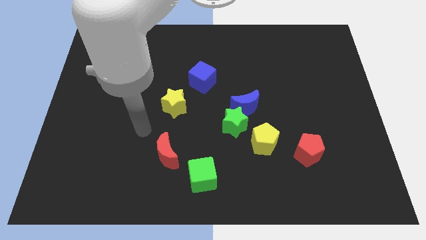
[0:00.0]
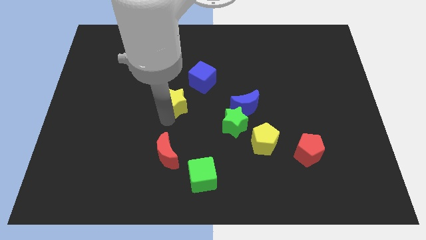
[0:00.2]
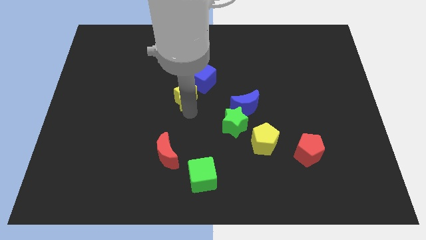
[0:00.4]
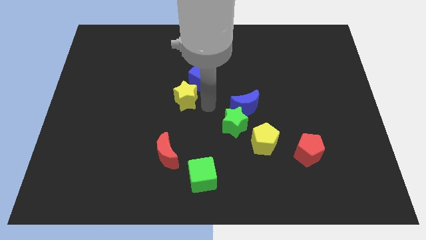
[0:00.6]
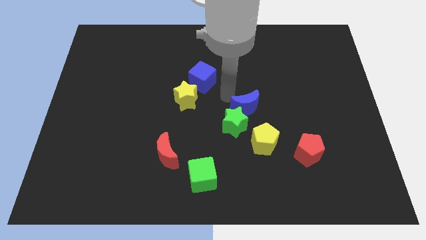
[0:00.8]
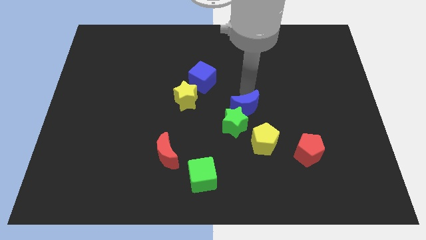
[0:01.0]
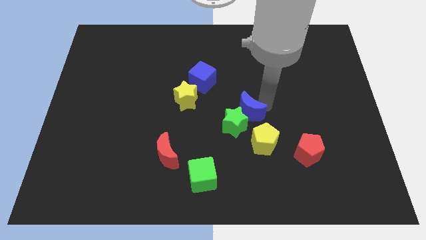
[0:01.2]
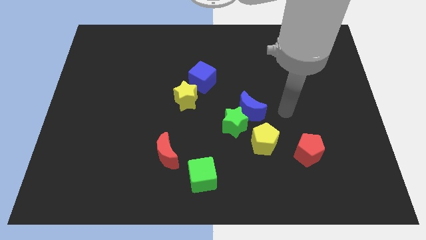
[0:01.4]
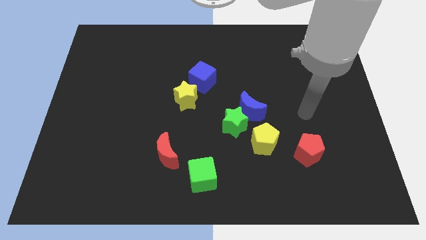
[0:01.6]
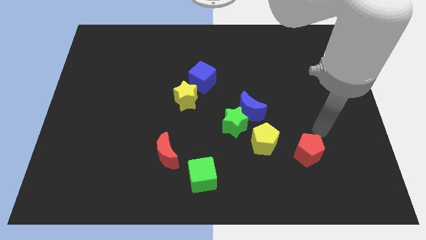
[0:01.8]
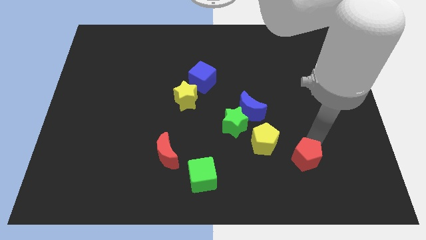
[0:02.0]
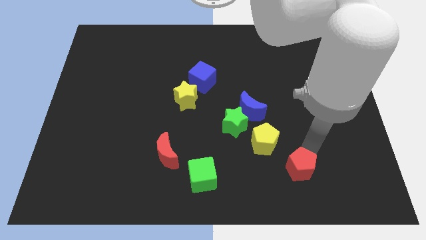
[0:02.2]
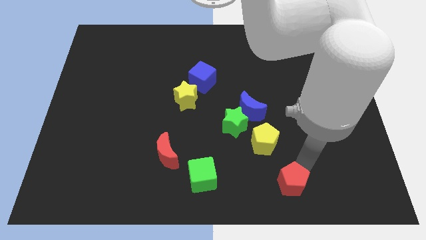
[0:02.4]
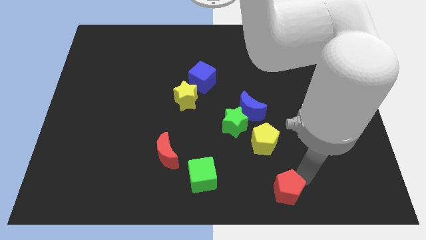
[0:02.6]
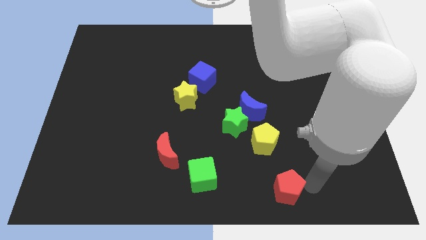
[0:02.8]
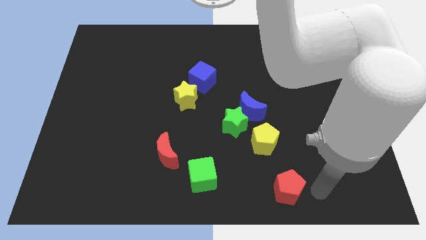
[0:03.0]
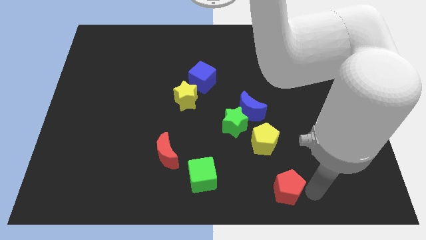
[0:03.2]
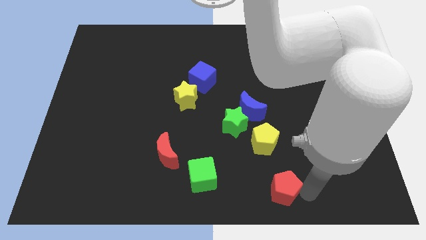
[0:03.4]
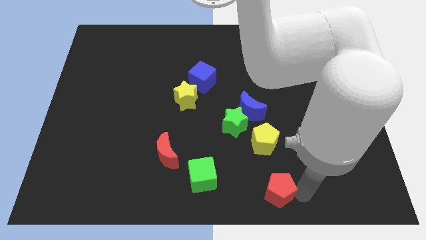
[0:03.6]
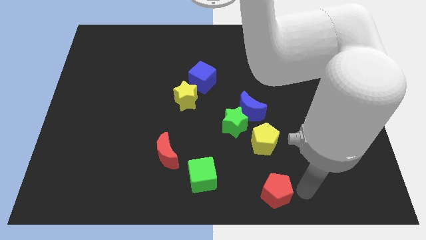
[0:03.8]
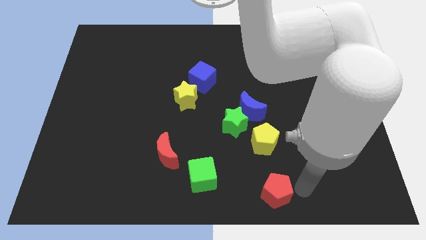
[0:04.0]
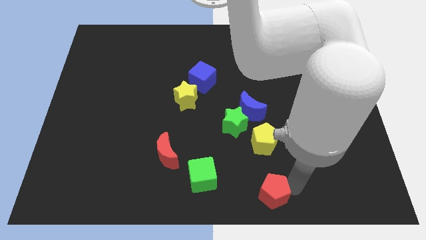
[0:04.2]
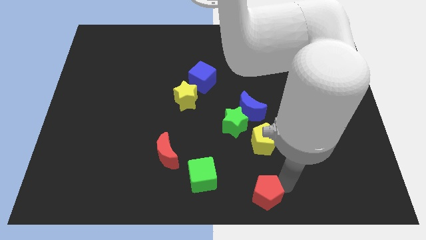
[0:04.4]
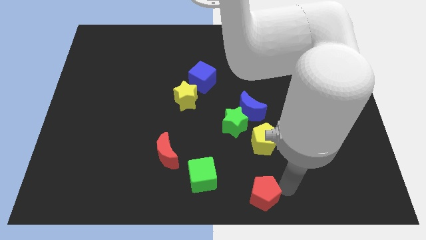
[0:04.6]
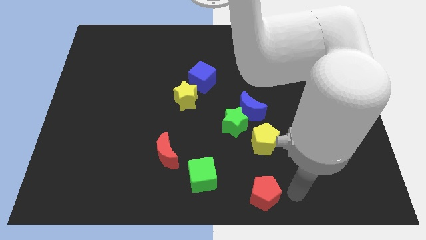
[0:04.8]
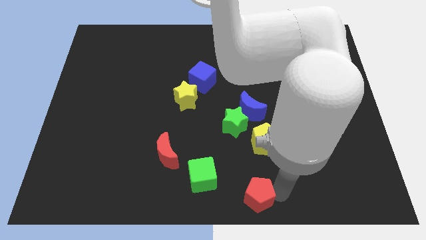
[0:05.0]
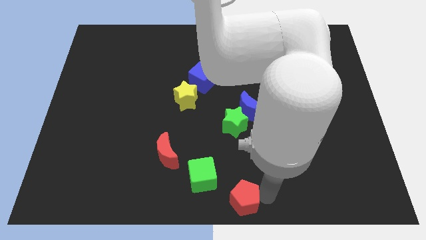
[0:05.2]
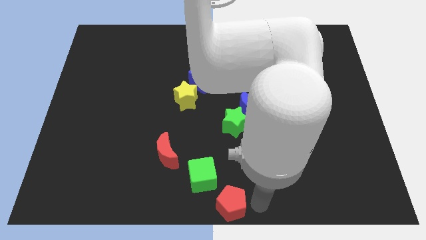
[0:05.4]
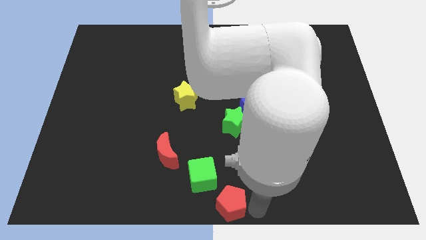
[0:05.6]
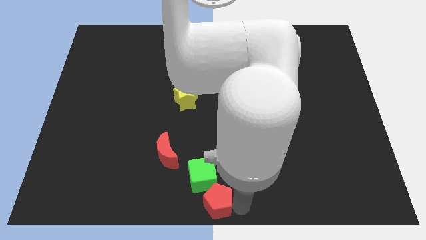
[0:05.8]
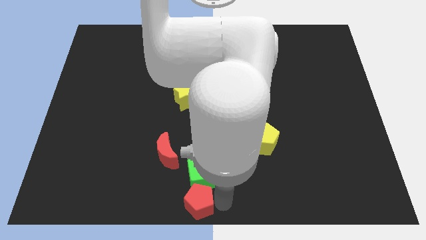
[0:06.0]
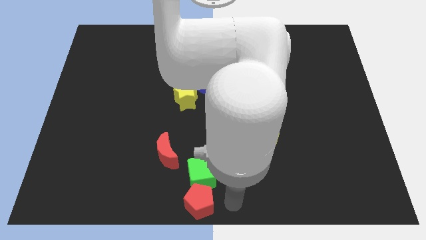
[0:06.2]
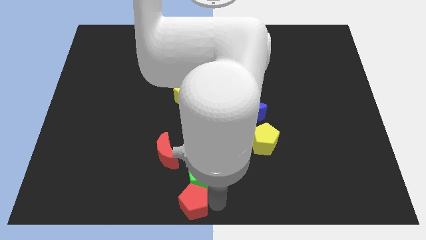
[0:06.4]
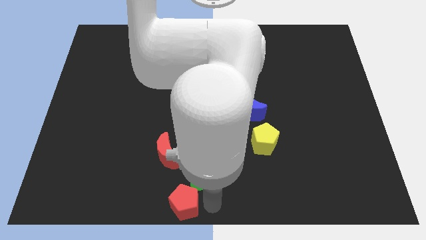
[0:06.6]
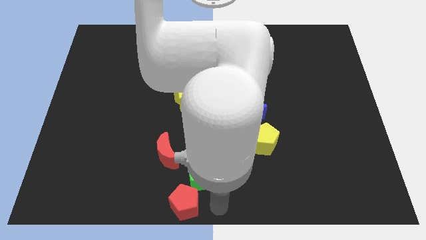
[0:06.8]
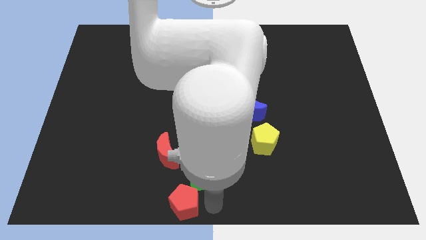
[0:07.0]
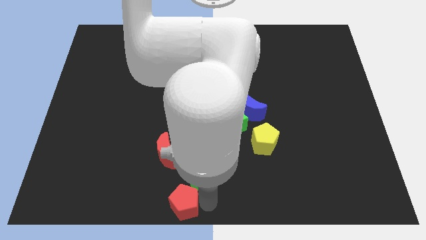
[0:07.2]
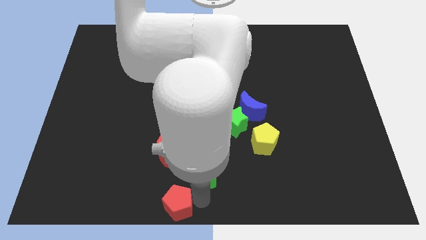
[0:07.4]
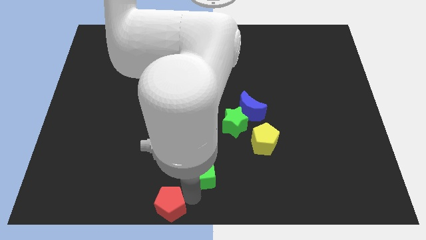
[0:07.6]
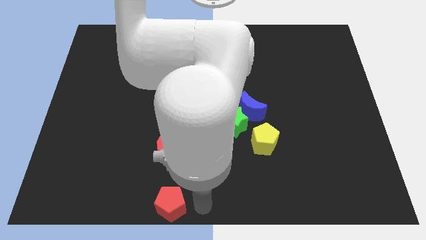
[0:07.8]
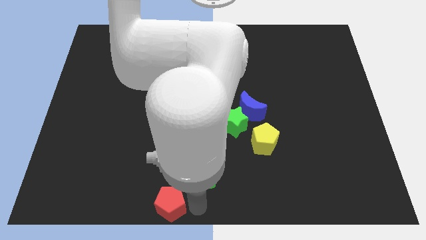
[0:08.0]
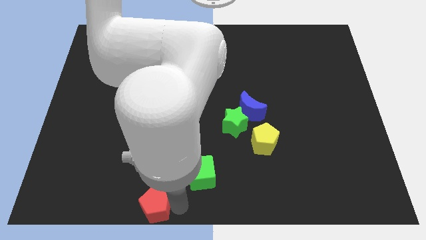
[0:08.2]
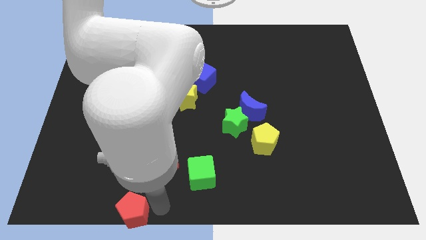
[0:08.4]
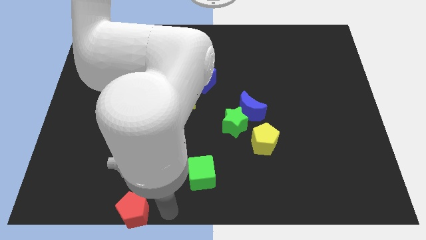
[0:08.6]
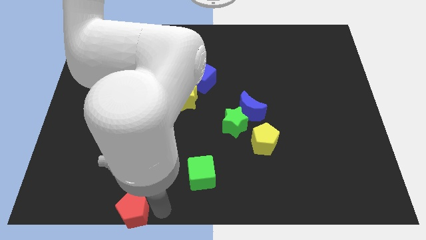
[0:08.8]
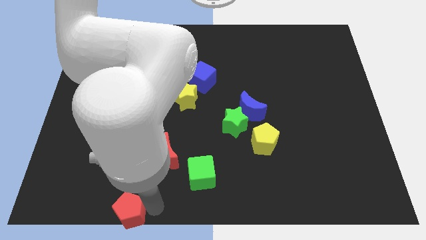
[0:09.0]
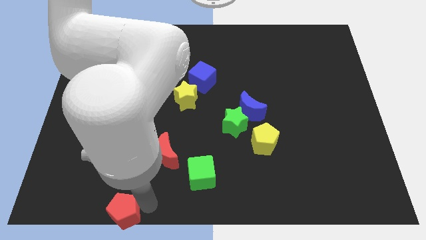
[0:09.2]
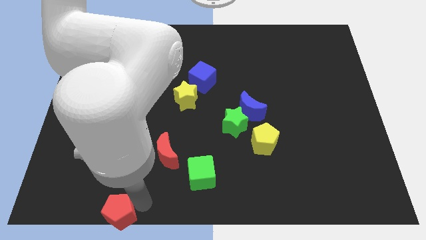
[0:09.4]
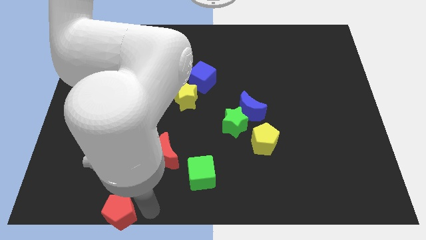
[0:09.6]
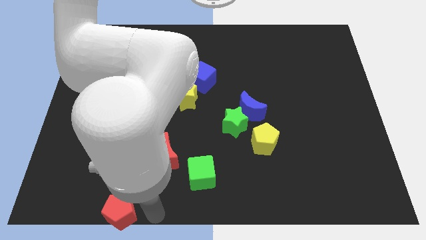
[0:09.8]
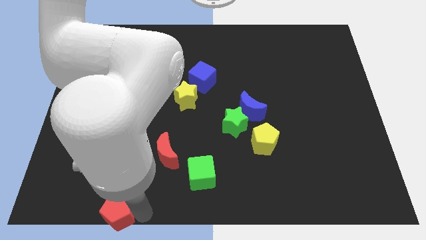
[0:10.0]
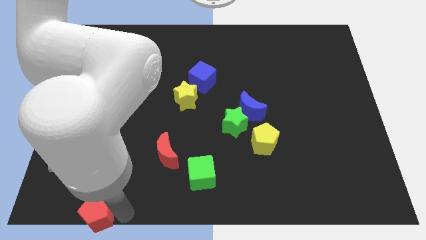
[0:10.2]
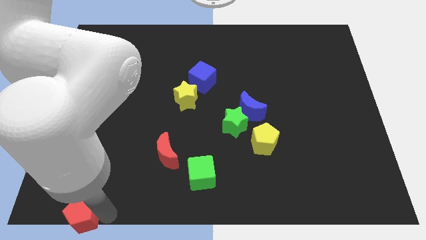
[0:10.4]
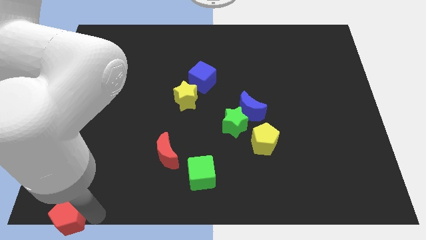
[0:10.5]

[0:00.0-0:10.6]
move the red pentagon to the bottom left corner
